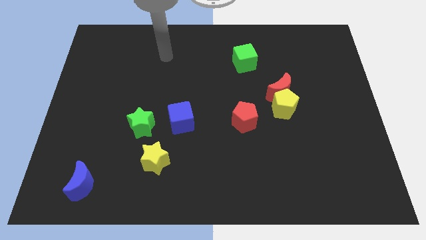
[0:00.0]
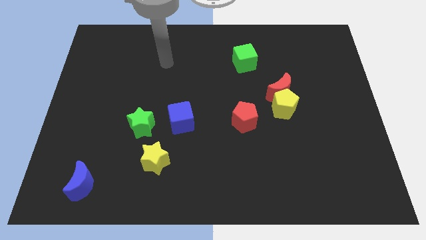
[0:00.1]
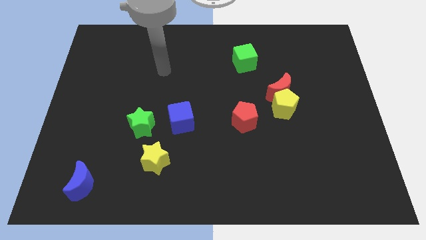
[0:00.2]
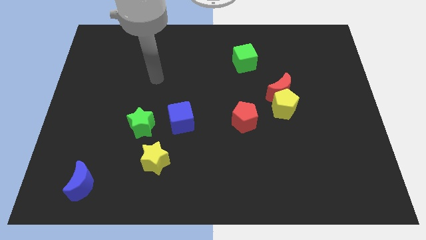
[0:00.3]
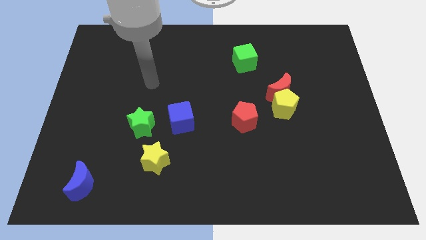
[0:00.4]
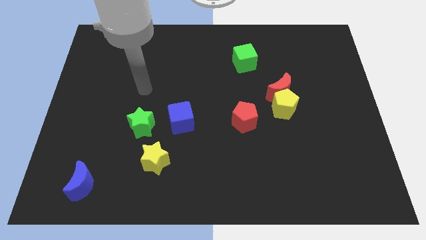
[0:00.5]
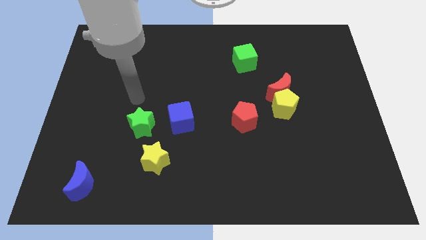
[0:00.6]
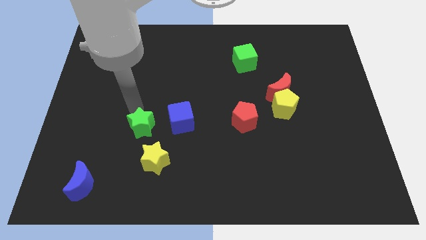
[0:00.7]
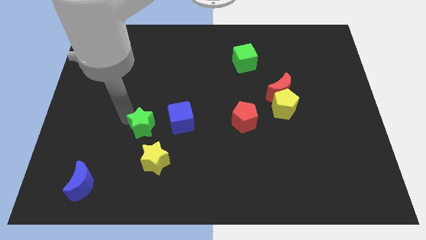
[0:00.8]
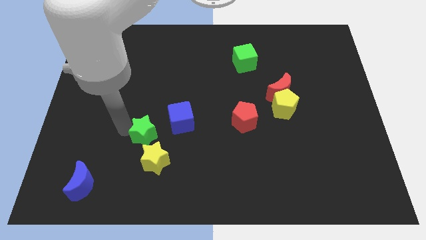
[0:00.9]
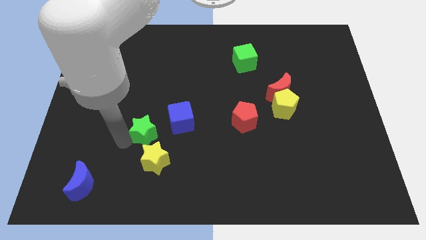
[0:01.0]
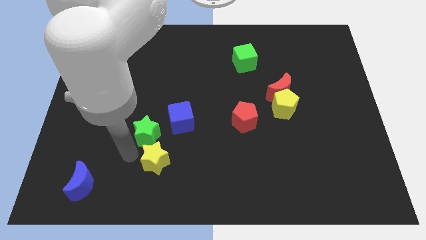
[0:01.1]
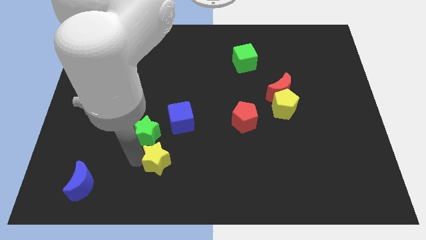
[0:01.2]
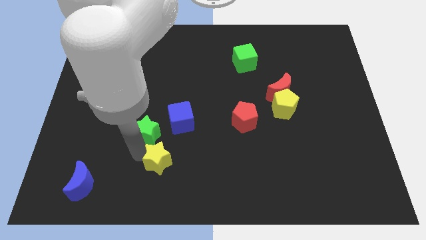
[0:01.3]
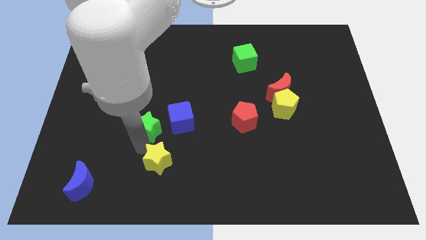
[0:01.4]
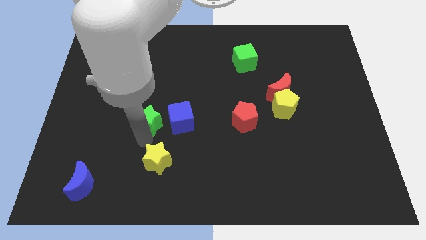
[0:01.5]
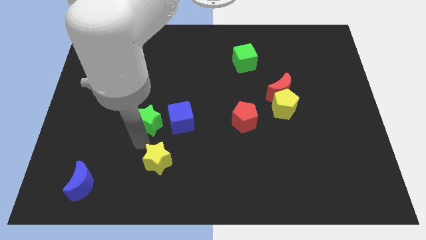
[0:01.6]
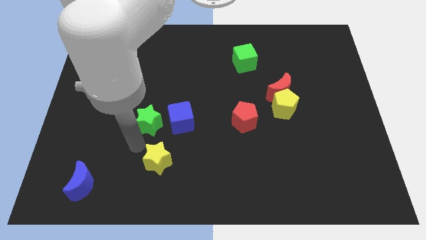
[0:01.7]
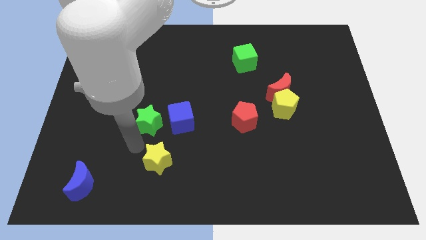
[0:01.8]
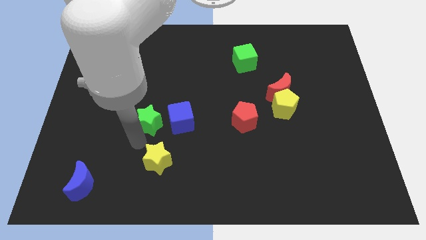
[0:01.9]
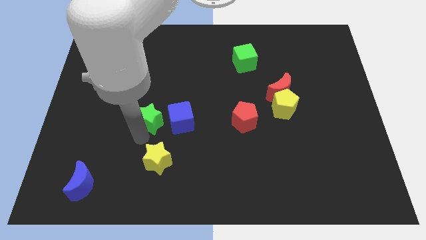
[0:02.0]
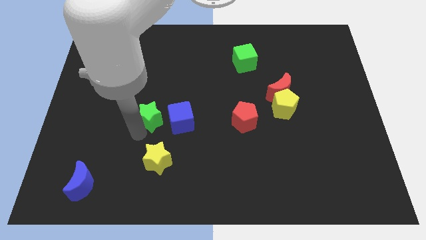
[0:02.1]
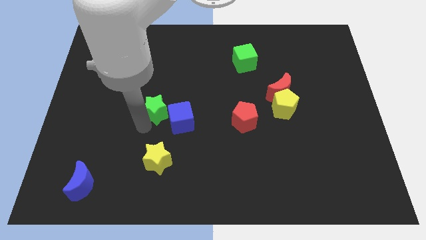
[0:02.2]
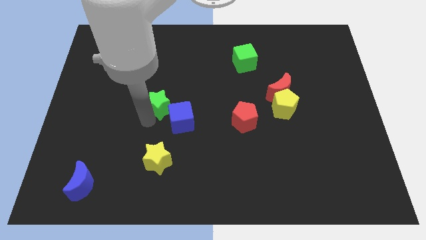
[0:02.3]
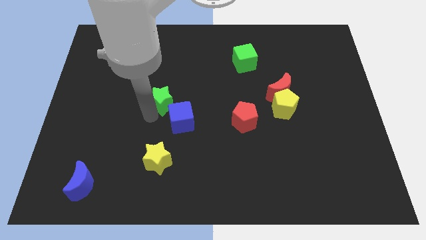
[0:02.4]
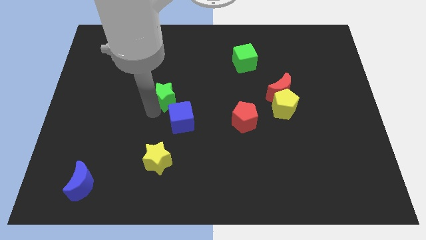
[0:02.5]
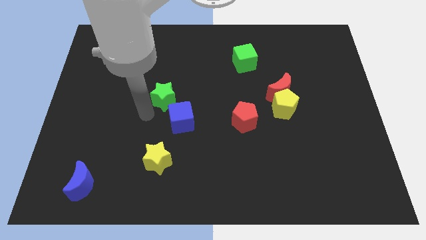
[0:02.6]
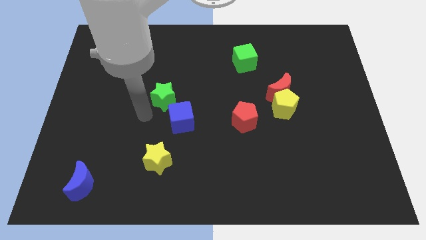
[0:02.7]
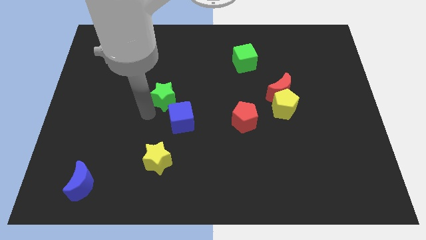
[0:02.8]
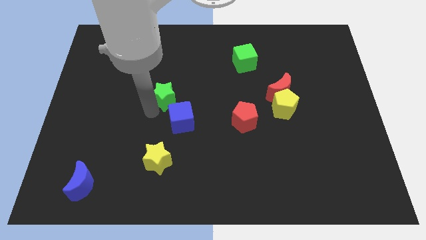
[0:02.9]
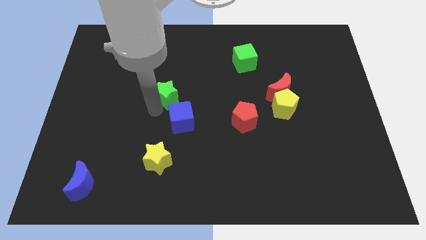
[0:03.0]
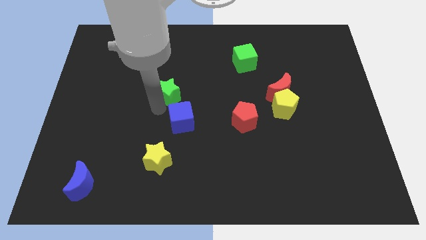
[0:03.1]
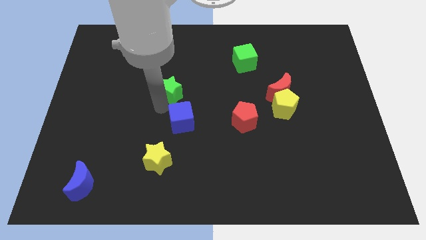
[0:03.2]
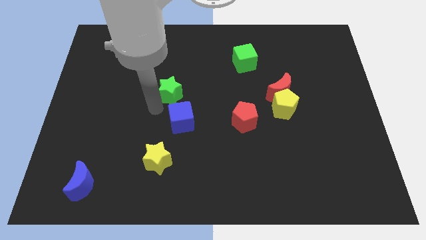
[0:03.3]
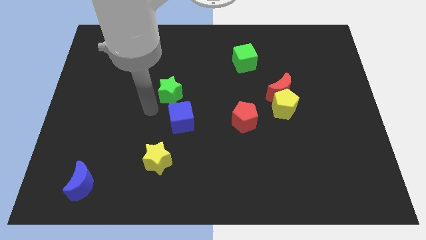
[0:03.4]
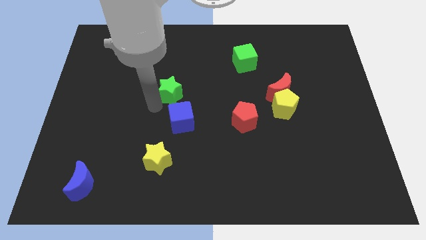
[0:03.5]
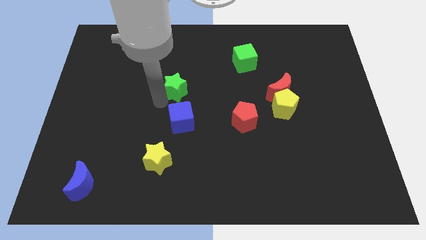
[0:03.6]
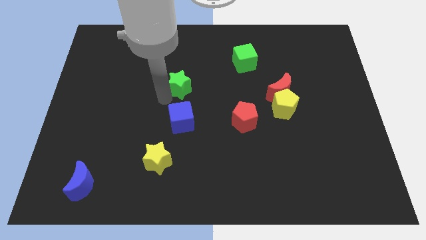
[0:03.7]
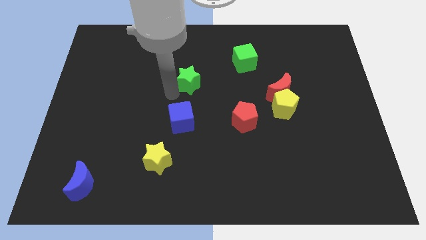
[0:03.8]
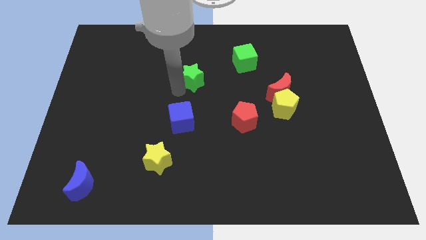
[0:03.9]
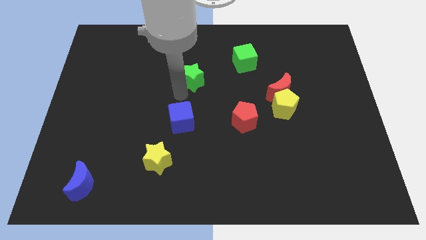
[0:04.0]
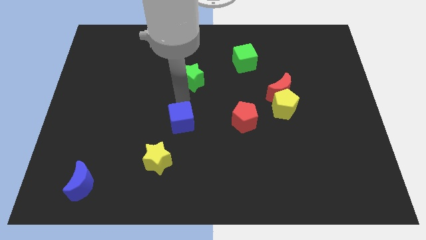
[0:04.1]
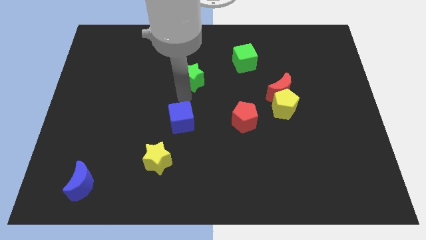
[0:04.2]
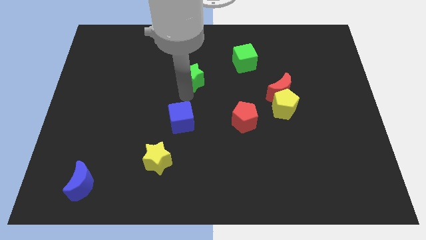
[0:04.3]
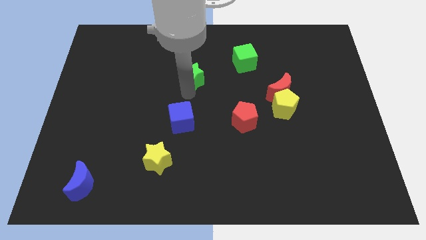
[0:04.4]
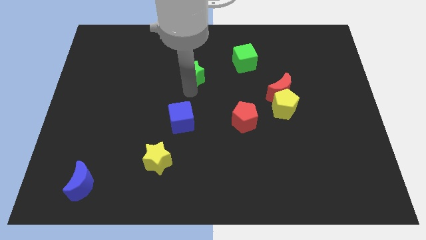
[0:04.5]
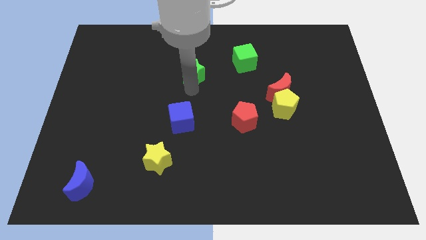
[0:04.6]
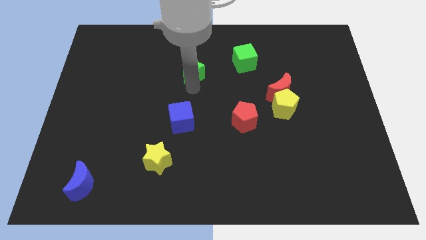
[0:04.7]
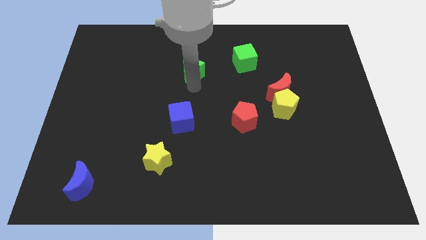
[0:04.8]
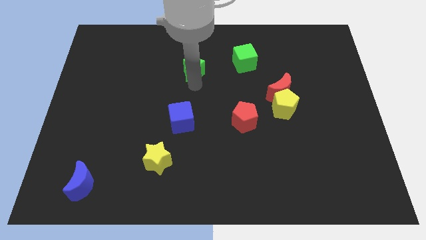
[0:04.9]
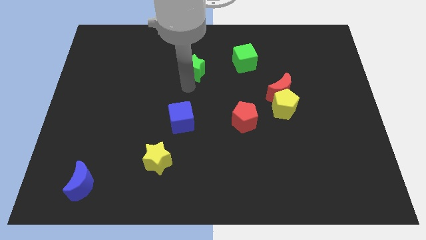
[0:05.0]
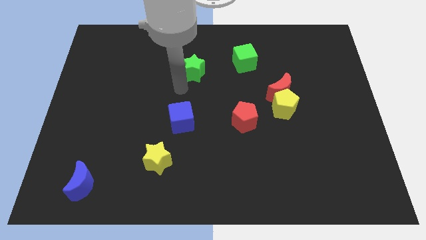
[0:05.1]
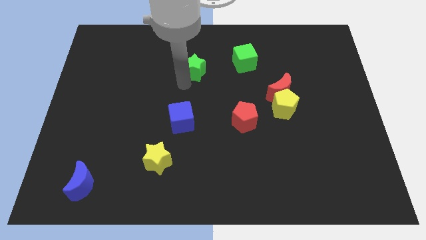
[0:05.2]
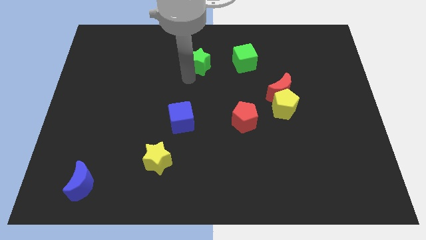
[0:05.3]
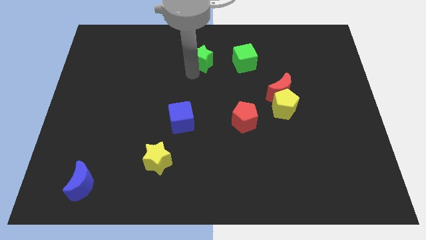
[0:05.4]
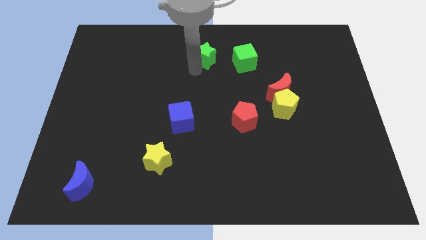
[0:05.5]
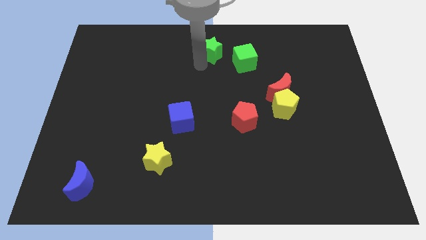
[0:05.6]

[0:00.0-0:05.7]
push the green star to the top

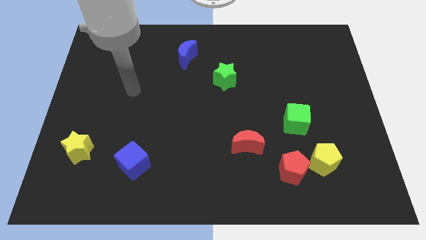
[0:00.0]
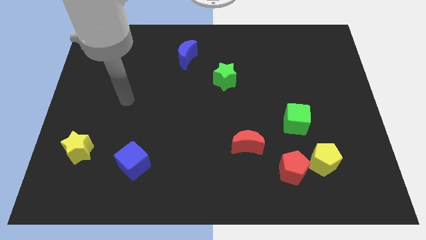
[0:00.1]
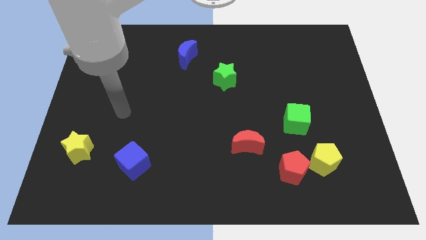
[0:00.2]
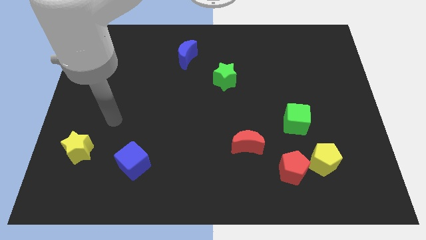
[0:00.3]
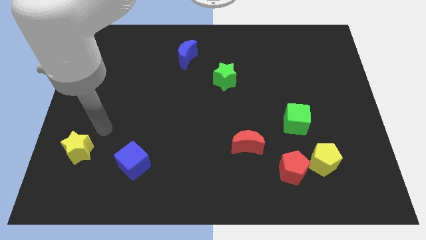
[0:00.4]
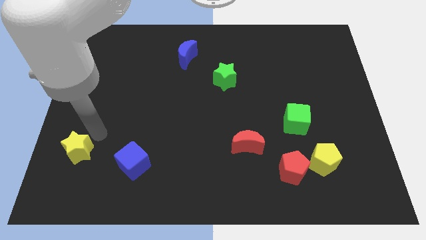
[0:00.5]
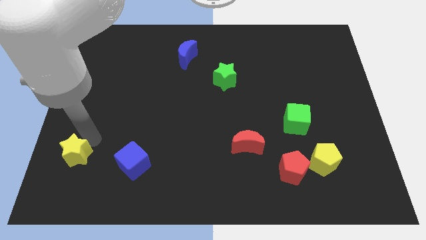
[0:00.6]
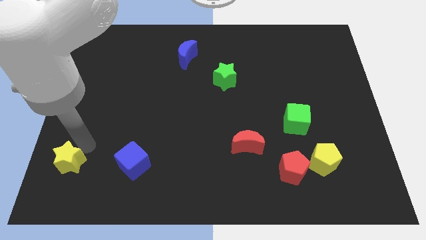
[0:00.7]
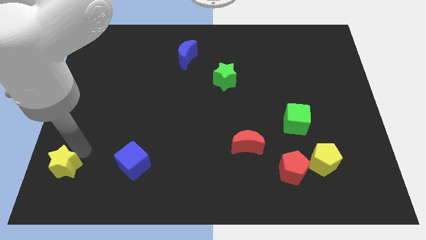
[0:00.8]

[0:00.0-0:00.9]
put the yellow star to the lower left corner
